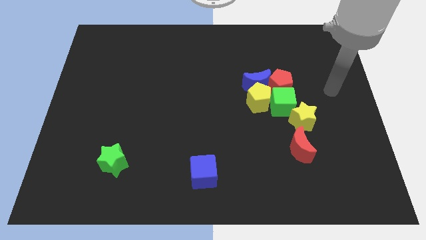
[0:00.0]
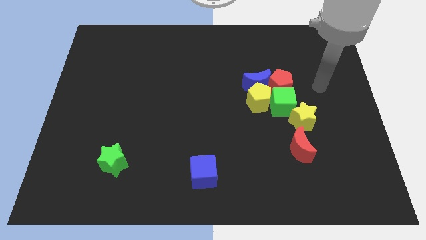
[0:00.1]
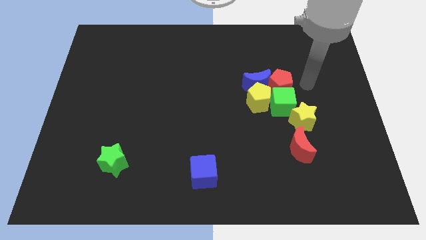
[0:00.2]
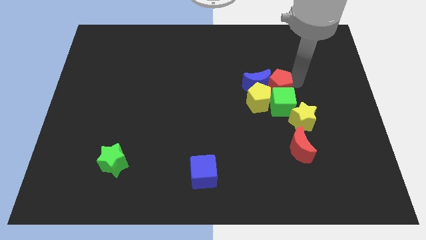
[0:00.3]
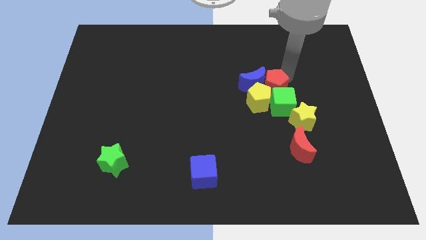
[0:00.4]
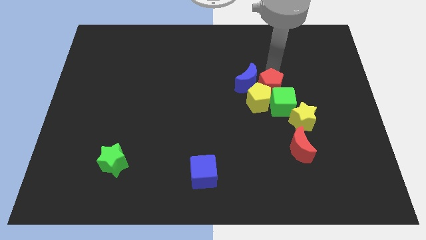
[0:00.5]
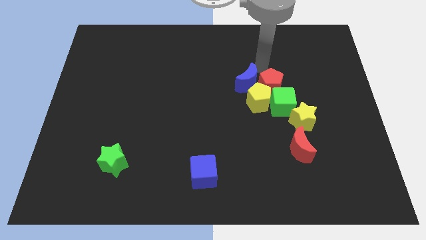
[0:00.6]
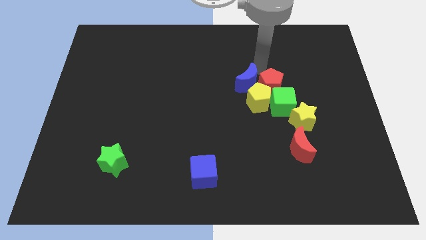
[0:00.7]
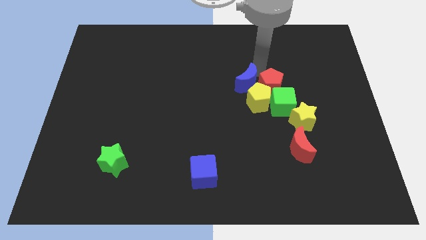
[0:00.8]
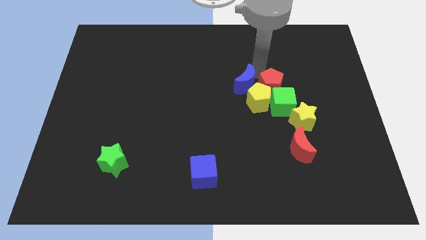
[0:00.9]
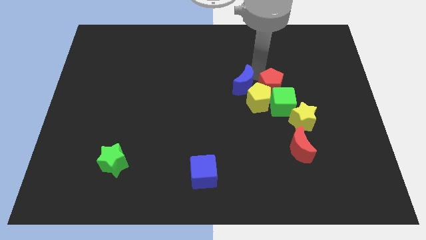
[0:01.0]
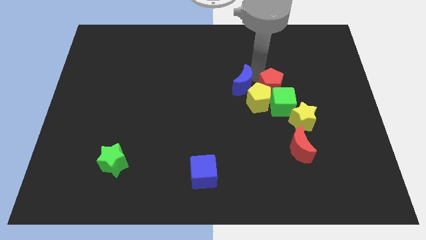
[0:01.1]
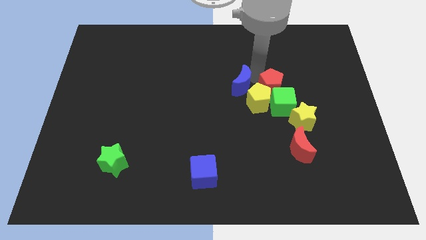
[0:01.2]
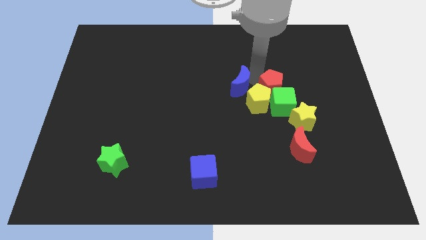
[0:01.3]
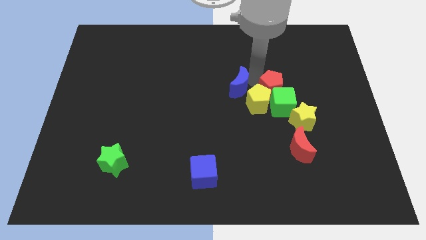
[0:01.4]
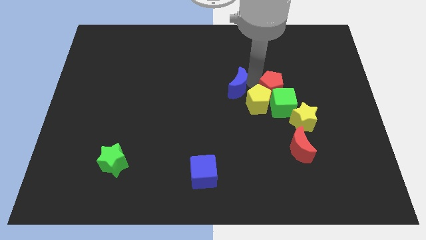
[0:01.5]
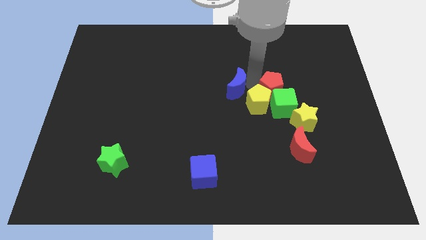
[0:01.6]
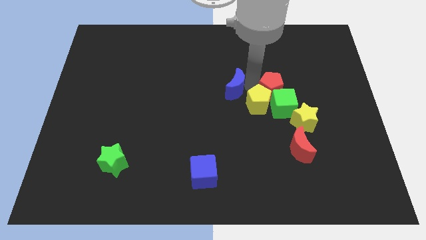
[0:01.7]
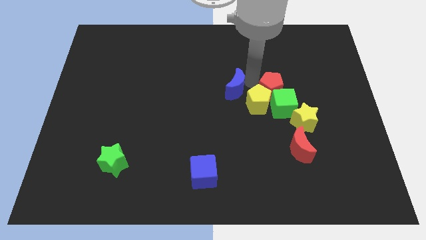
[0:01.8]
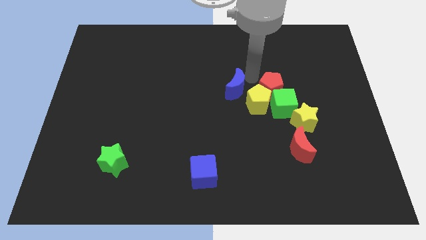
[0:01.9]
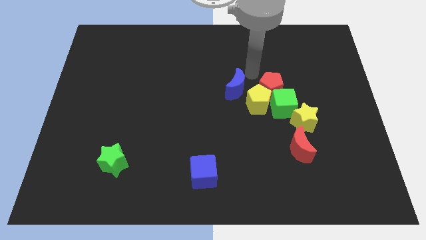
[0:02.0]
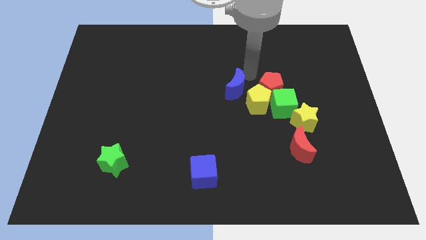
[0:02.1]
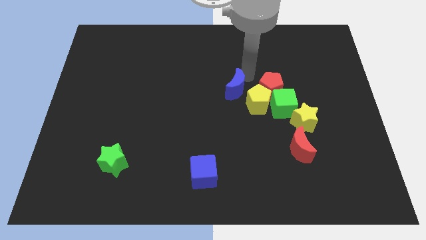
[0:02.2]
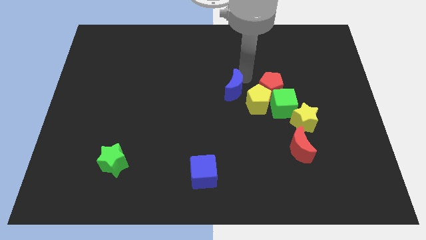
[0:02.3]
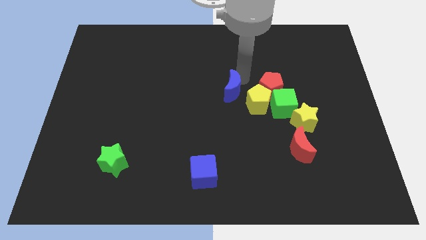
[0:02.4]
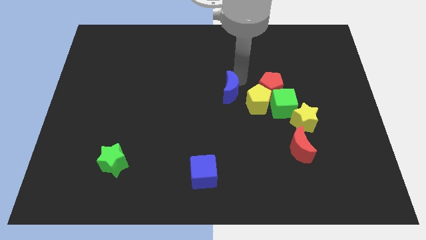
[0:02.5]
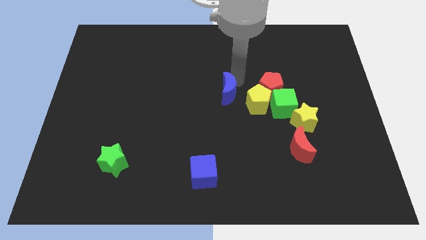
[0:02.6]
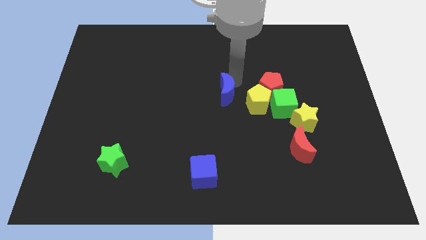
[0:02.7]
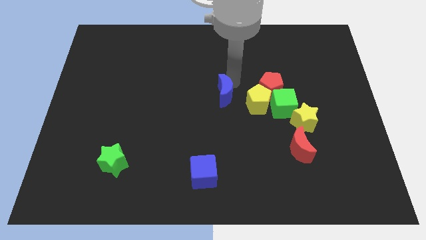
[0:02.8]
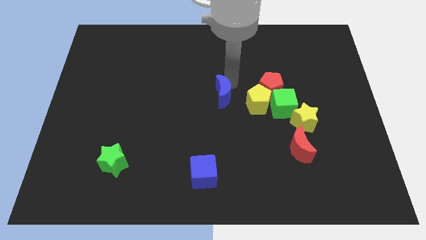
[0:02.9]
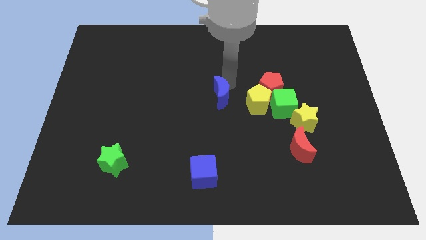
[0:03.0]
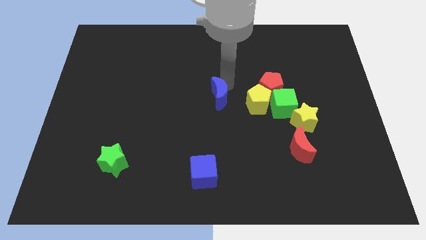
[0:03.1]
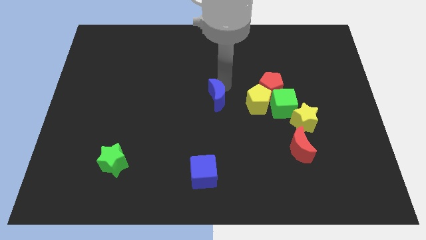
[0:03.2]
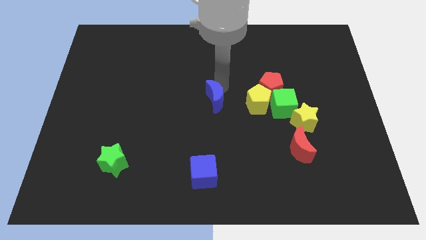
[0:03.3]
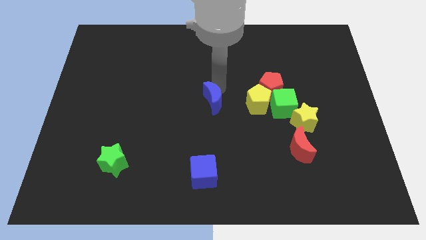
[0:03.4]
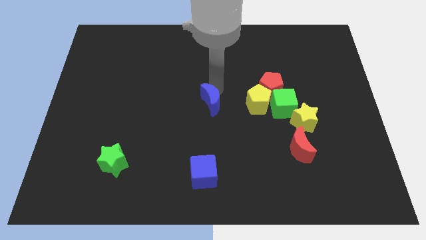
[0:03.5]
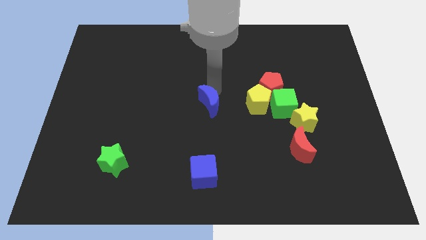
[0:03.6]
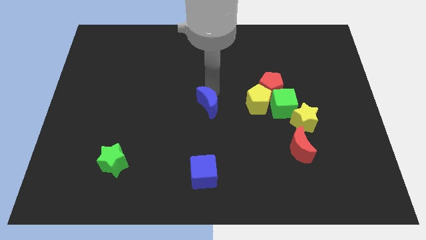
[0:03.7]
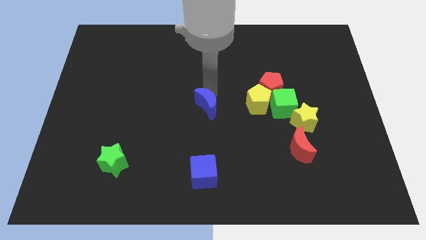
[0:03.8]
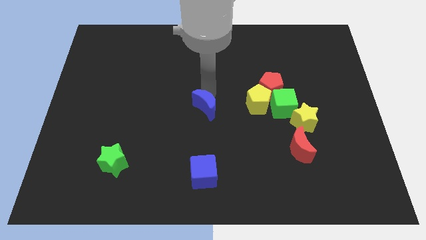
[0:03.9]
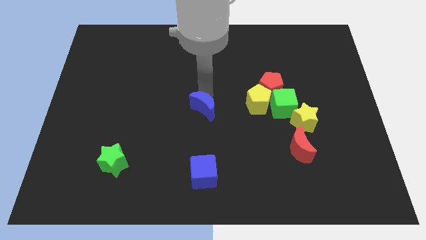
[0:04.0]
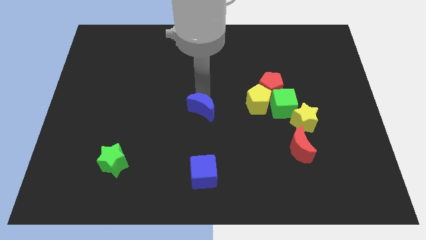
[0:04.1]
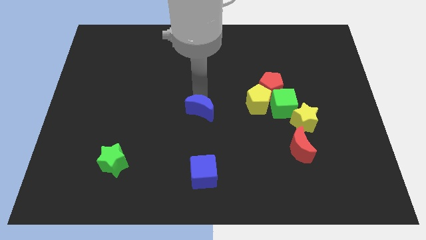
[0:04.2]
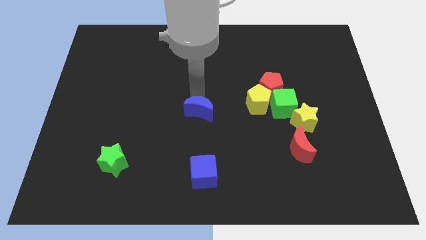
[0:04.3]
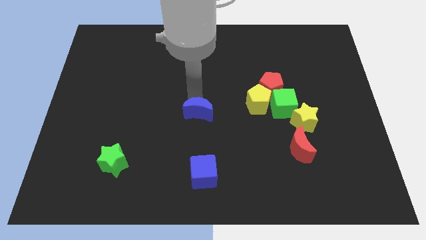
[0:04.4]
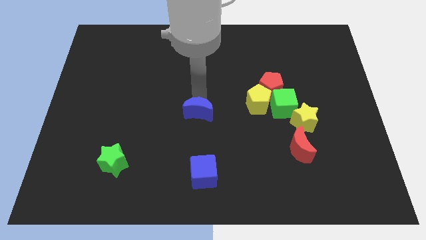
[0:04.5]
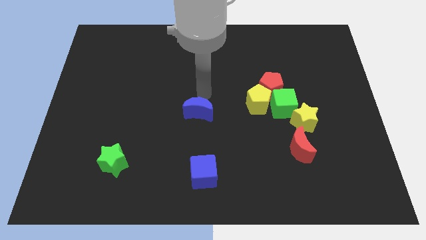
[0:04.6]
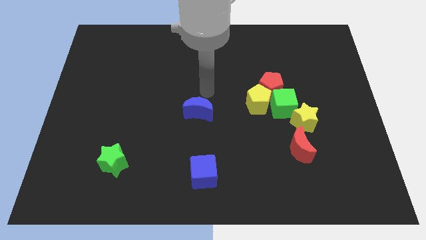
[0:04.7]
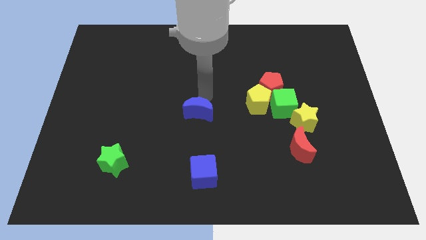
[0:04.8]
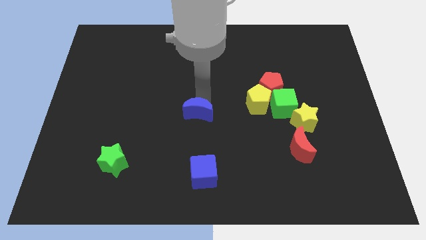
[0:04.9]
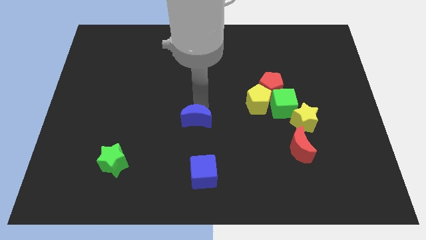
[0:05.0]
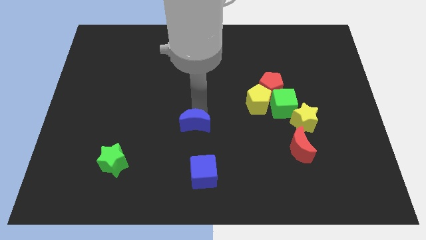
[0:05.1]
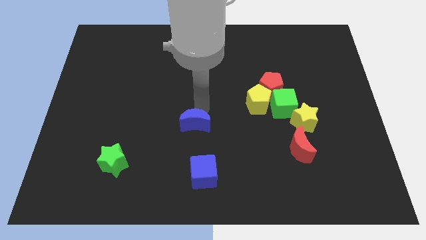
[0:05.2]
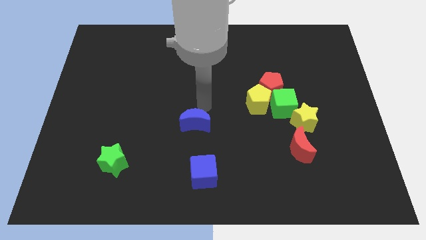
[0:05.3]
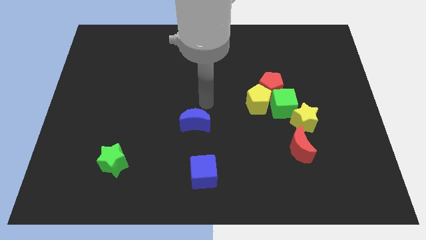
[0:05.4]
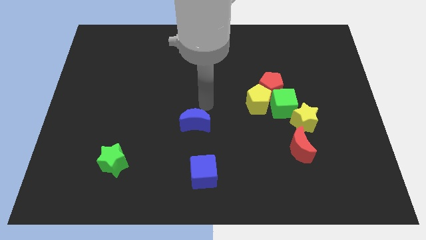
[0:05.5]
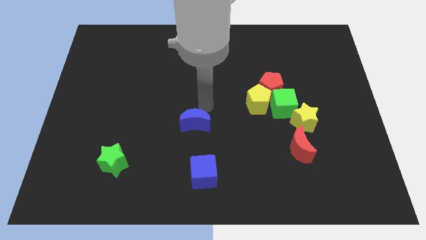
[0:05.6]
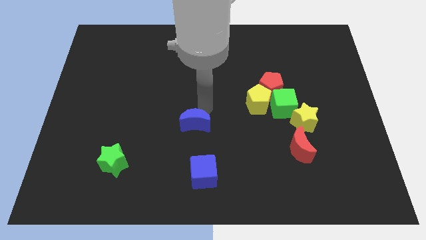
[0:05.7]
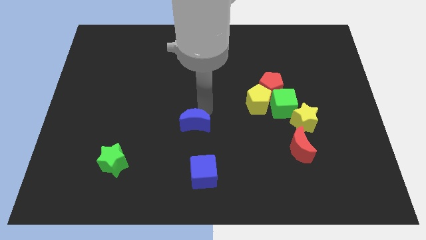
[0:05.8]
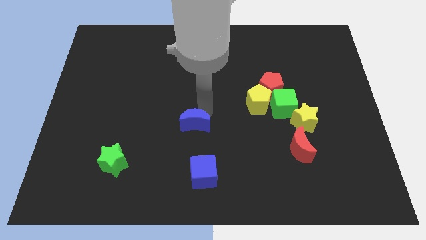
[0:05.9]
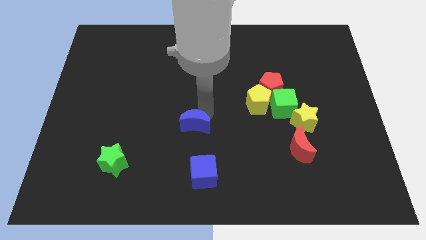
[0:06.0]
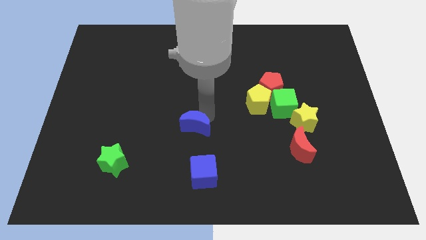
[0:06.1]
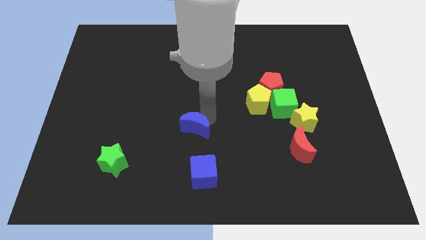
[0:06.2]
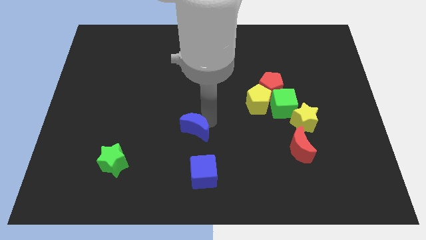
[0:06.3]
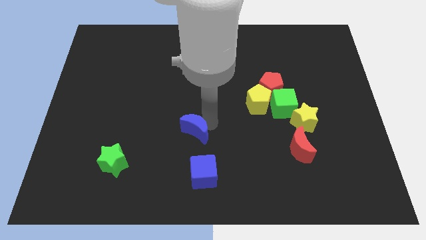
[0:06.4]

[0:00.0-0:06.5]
push the blue moon downwards and left

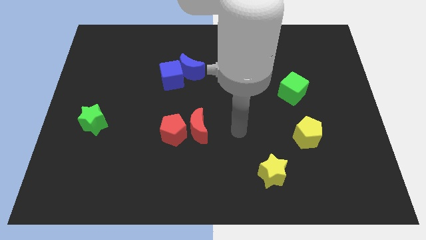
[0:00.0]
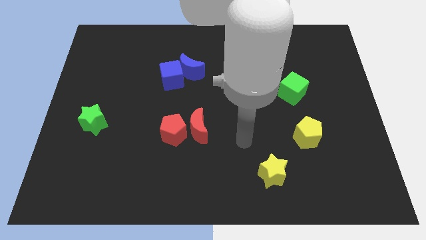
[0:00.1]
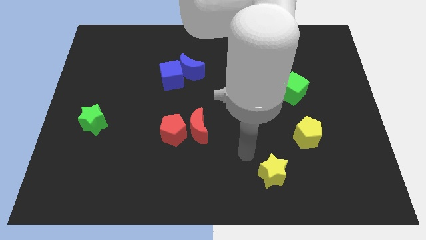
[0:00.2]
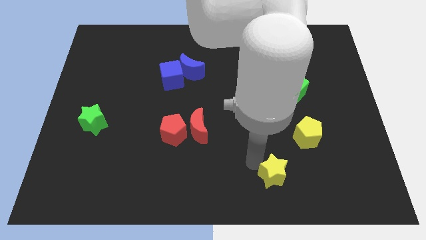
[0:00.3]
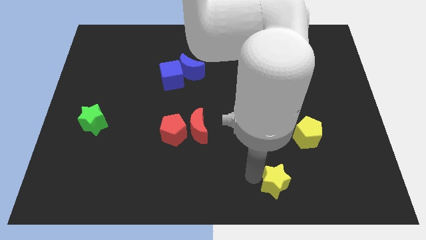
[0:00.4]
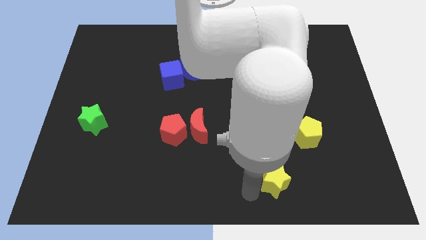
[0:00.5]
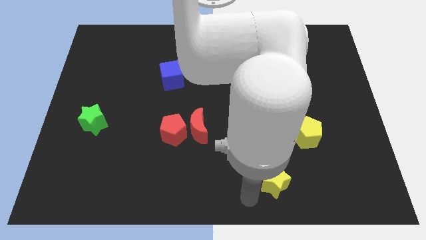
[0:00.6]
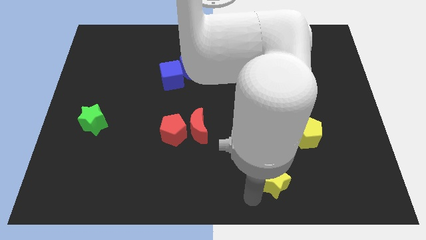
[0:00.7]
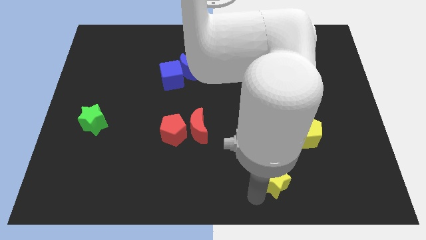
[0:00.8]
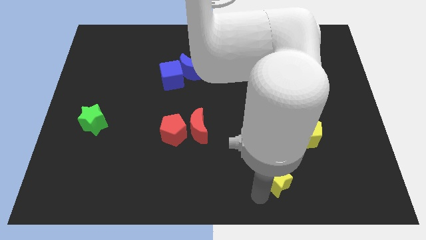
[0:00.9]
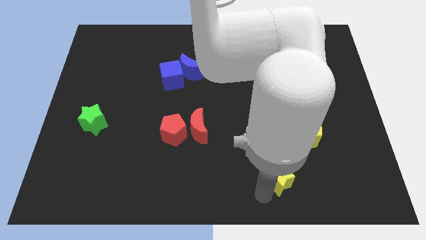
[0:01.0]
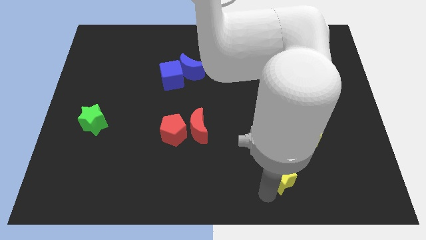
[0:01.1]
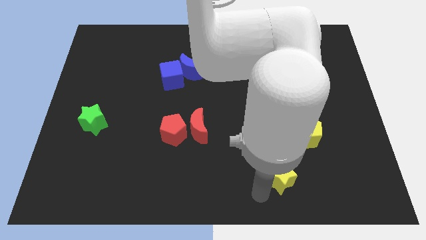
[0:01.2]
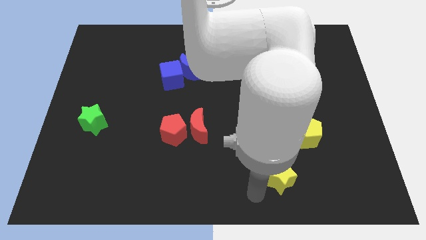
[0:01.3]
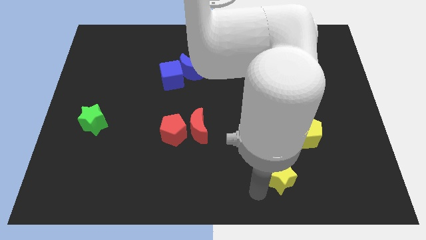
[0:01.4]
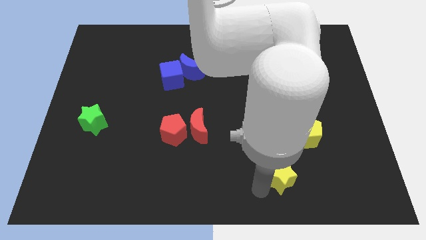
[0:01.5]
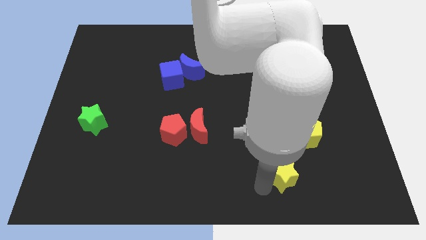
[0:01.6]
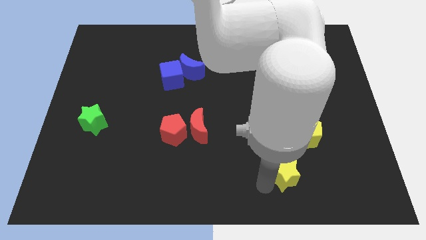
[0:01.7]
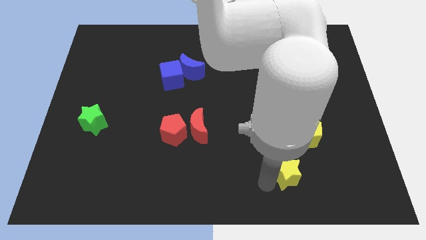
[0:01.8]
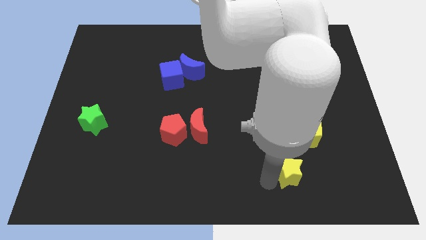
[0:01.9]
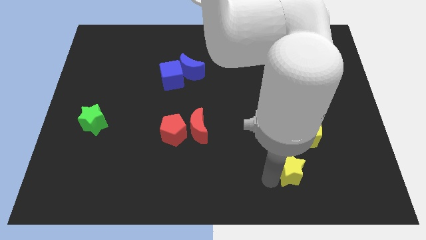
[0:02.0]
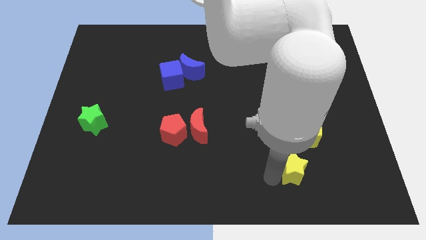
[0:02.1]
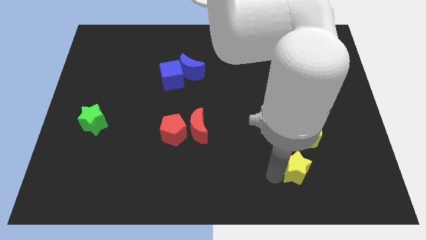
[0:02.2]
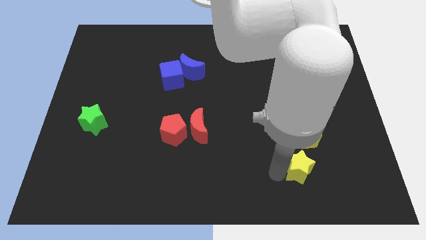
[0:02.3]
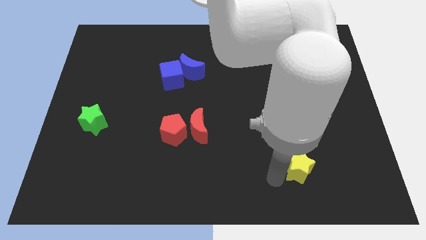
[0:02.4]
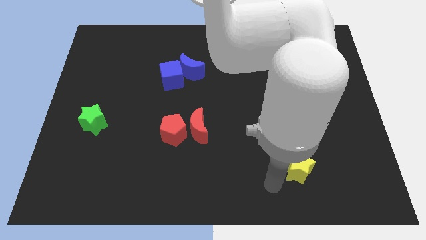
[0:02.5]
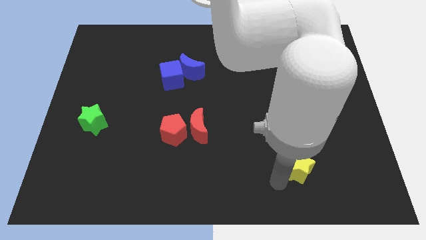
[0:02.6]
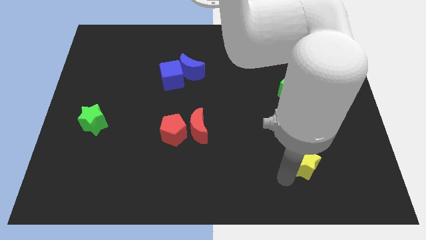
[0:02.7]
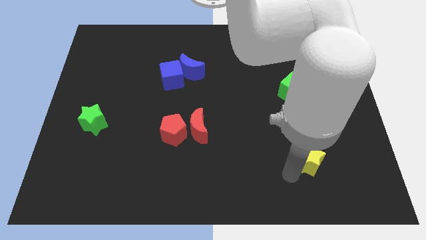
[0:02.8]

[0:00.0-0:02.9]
move the yellow star a bit up and right diagonally
